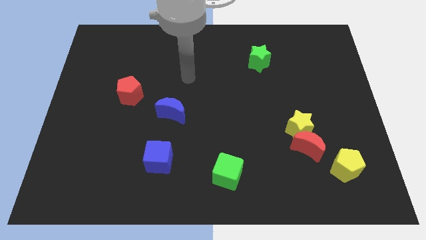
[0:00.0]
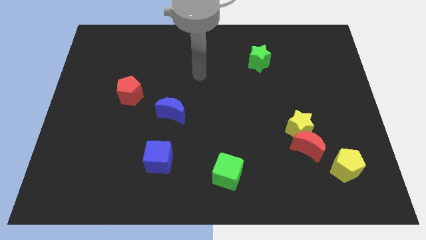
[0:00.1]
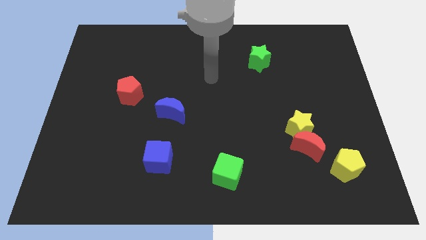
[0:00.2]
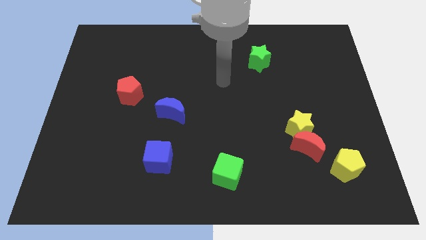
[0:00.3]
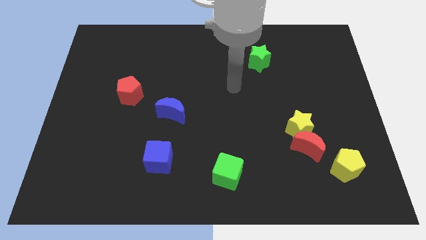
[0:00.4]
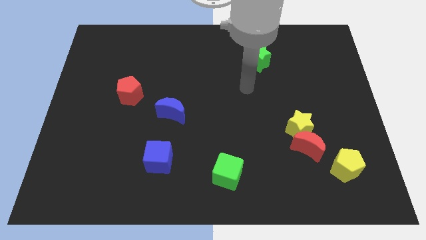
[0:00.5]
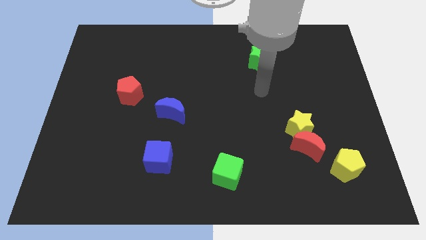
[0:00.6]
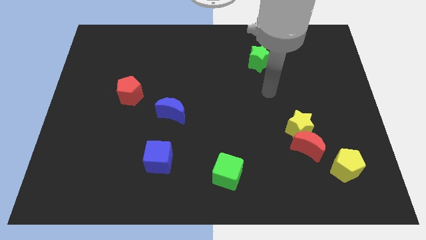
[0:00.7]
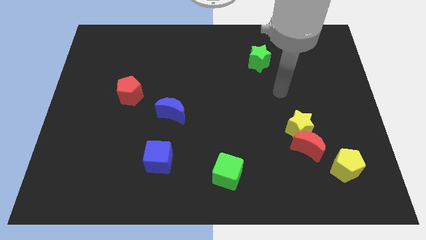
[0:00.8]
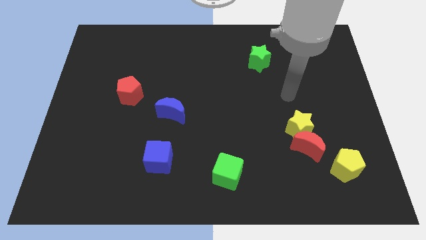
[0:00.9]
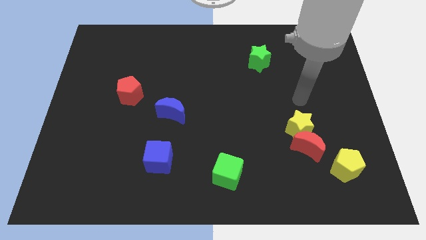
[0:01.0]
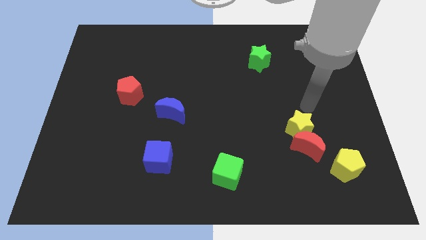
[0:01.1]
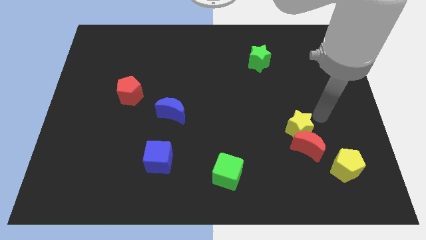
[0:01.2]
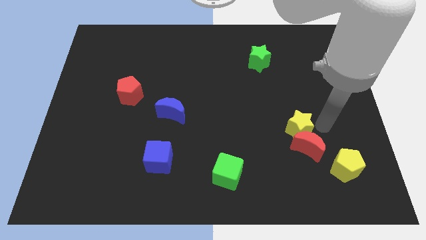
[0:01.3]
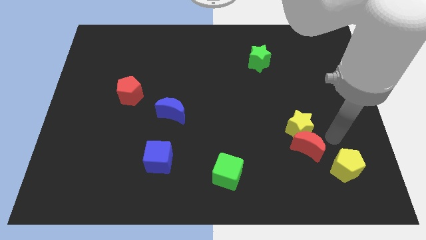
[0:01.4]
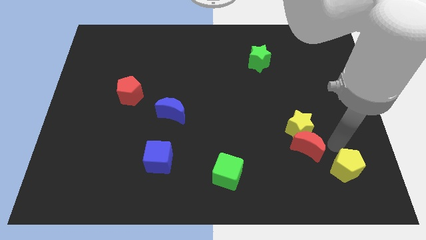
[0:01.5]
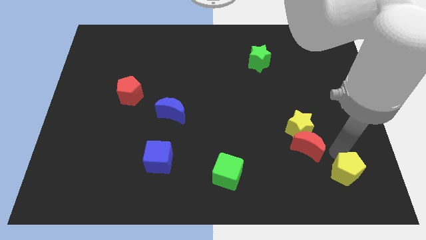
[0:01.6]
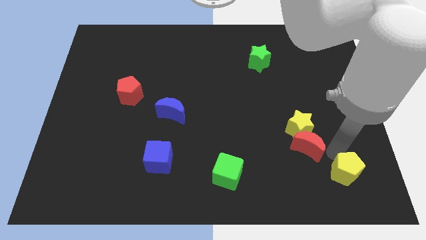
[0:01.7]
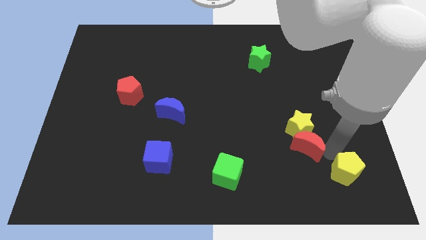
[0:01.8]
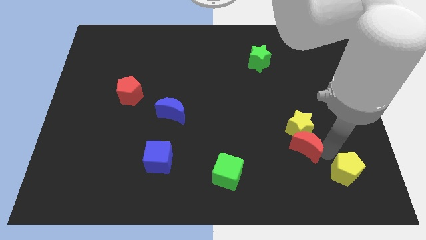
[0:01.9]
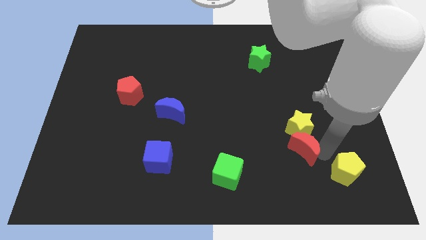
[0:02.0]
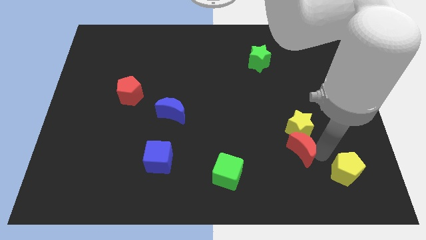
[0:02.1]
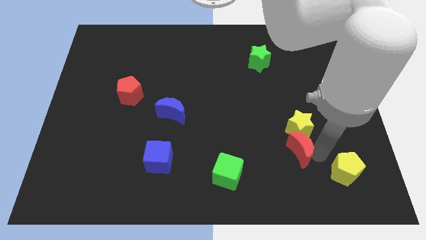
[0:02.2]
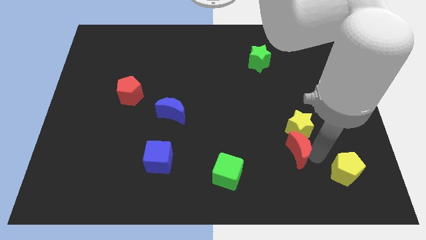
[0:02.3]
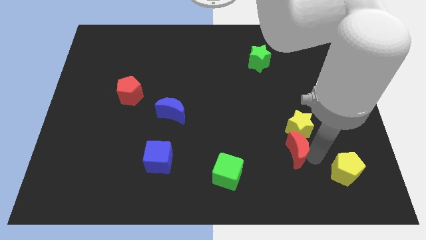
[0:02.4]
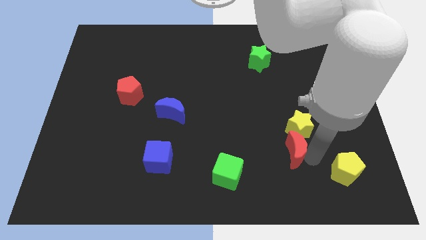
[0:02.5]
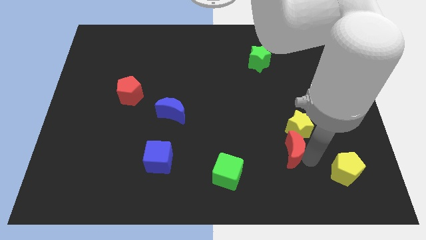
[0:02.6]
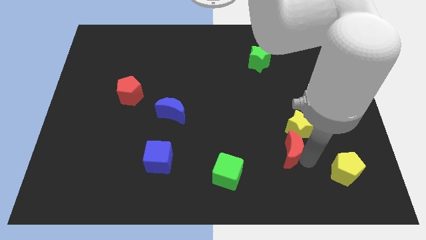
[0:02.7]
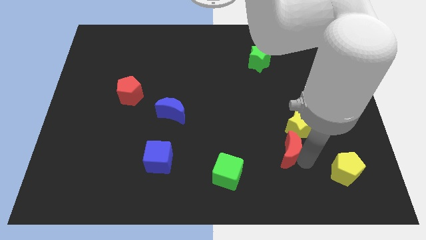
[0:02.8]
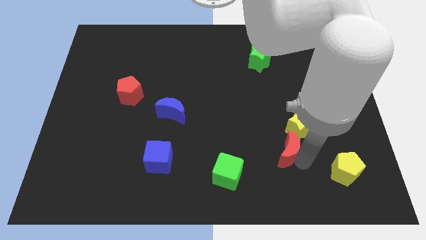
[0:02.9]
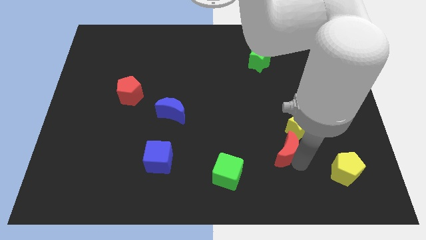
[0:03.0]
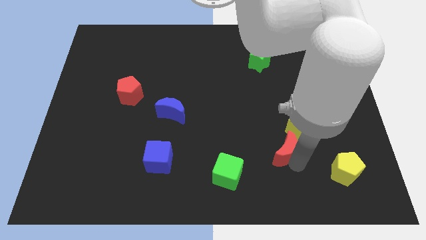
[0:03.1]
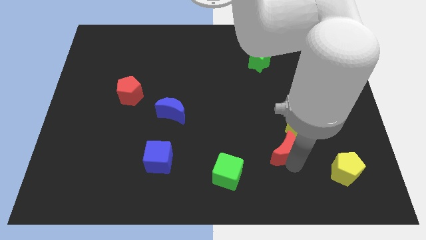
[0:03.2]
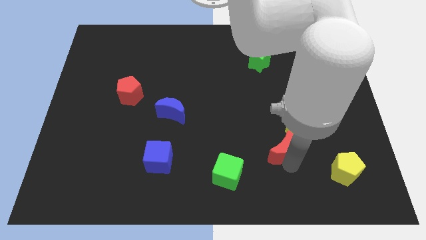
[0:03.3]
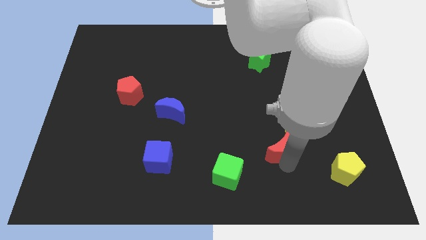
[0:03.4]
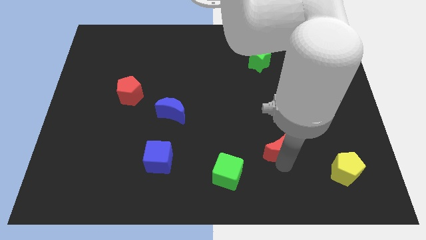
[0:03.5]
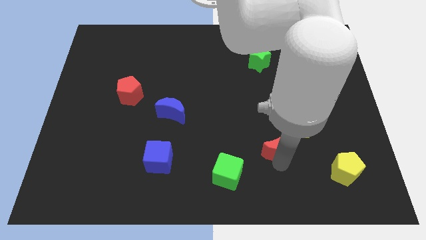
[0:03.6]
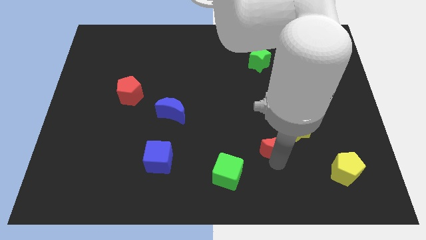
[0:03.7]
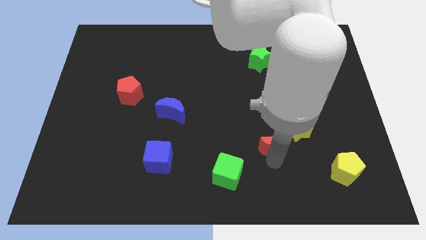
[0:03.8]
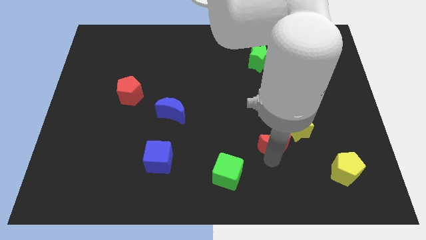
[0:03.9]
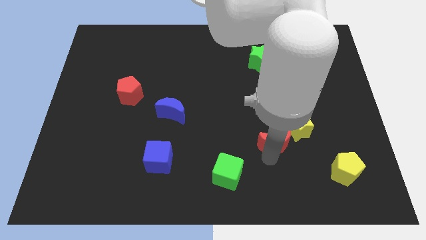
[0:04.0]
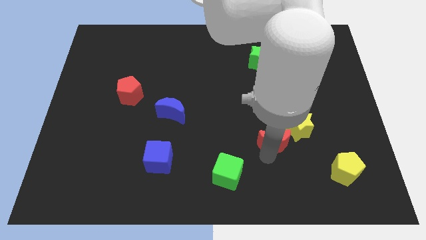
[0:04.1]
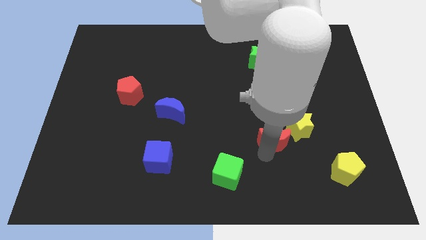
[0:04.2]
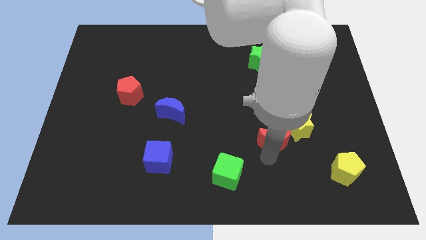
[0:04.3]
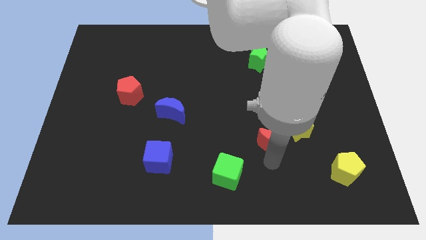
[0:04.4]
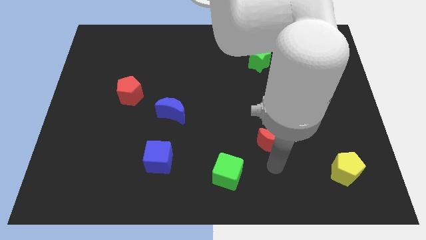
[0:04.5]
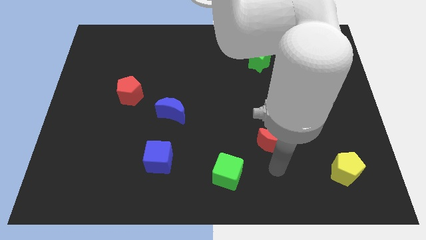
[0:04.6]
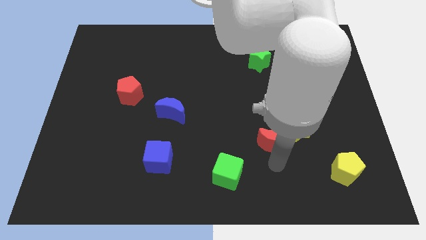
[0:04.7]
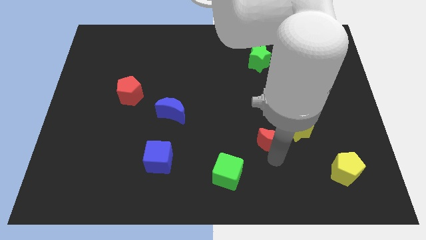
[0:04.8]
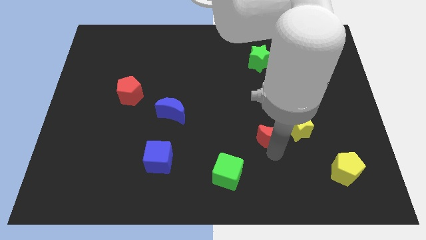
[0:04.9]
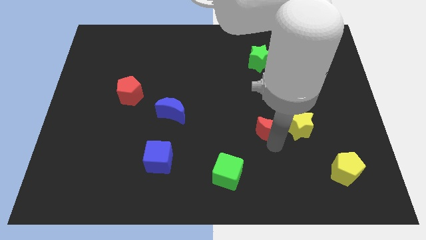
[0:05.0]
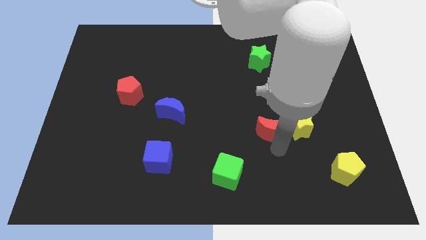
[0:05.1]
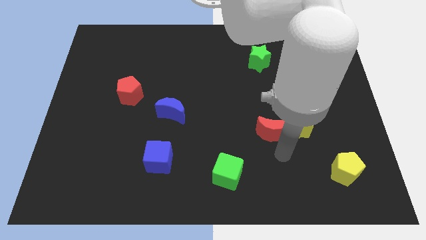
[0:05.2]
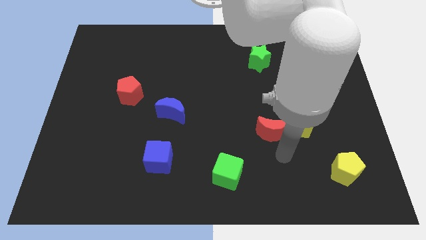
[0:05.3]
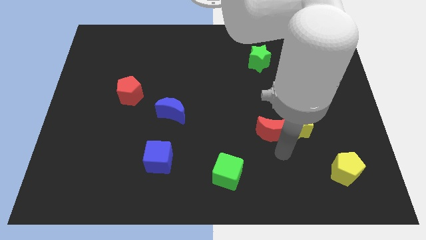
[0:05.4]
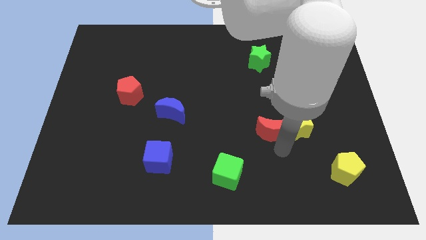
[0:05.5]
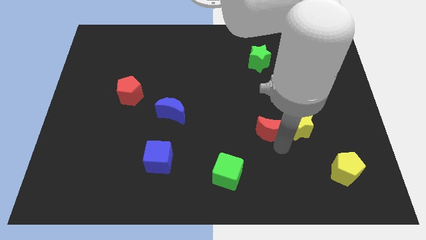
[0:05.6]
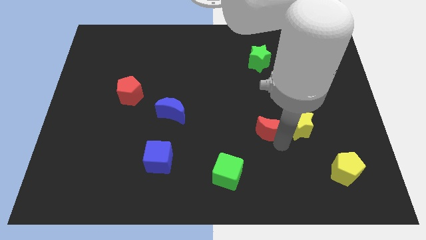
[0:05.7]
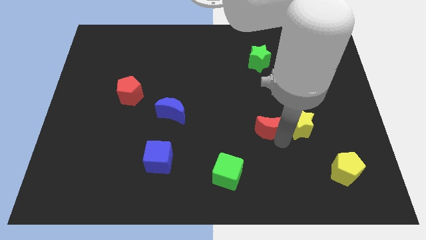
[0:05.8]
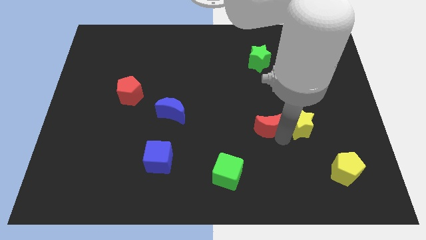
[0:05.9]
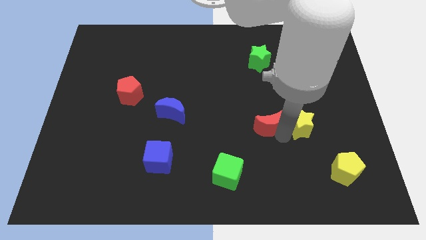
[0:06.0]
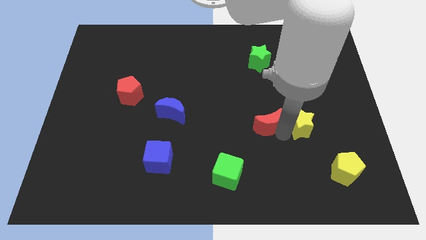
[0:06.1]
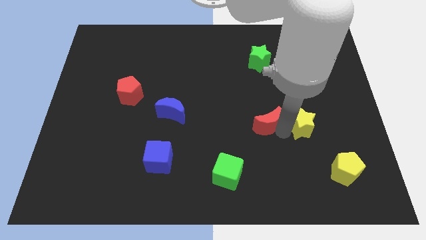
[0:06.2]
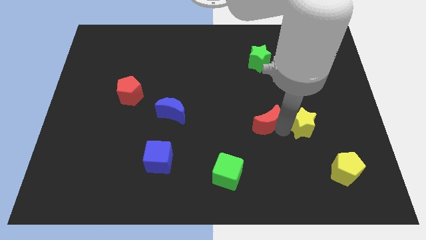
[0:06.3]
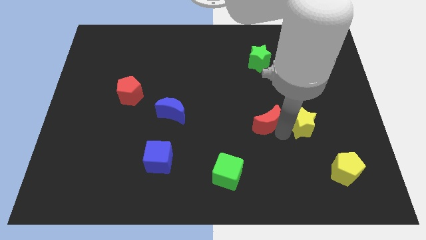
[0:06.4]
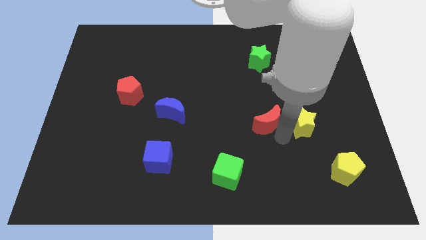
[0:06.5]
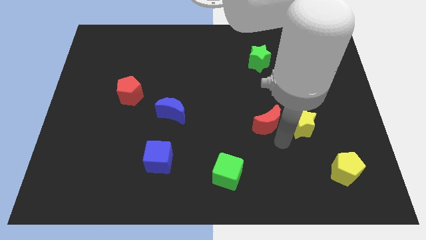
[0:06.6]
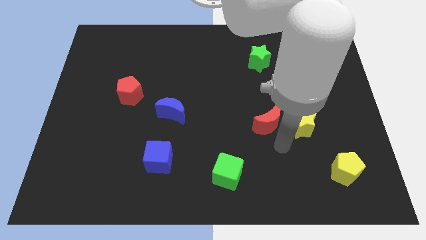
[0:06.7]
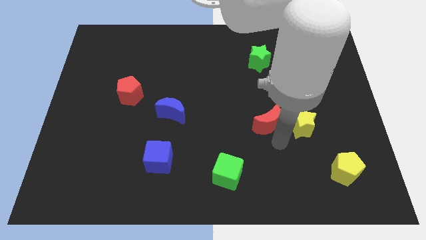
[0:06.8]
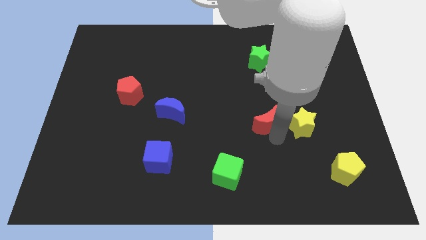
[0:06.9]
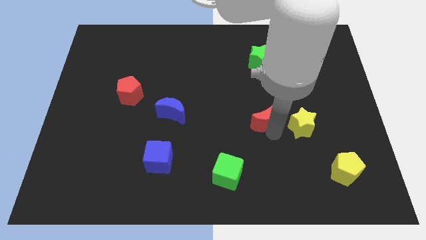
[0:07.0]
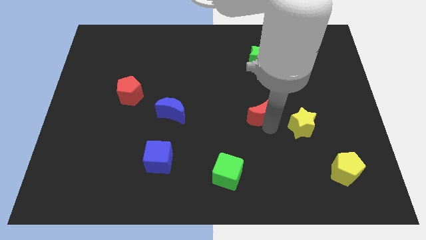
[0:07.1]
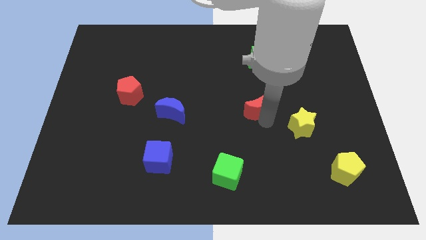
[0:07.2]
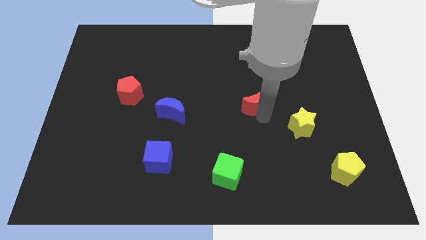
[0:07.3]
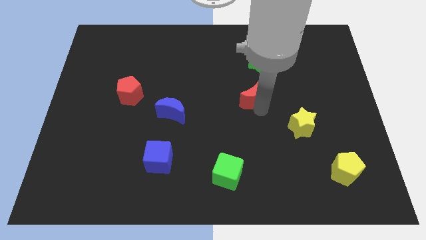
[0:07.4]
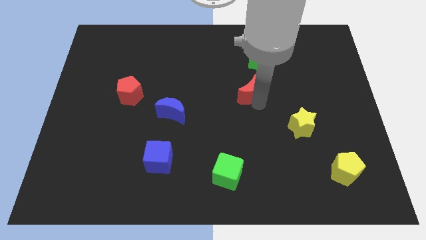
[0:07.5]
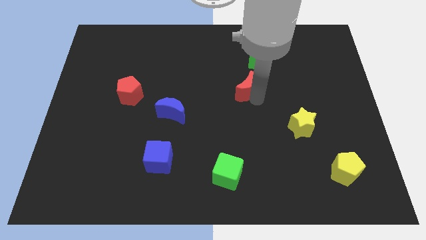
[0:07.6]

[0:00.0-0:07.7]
slide the red moon up and left

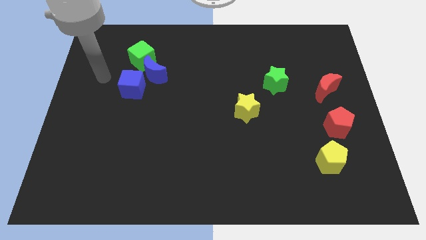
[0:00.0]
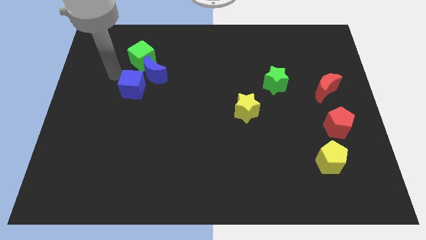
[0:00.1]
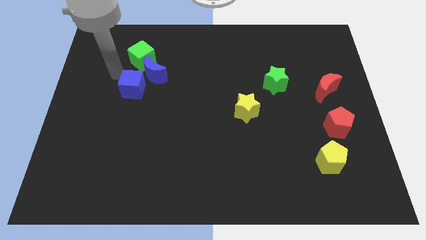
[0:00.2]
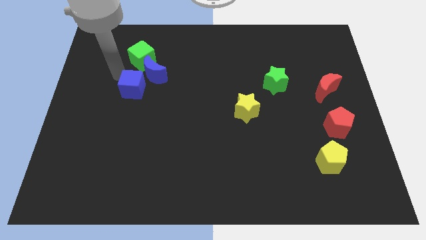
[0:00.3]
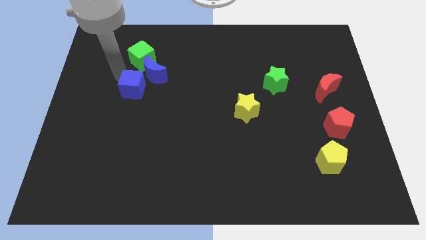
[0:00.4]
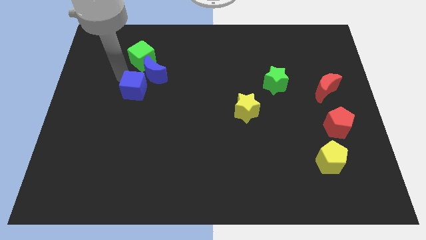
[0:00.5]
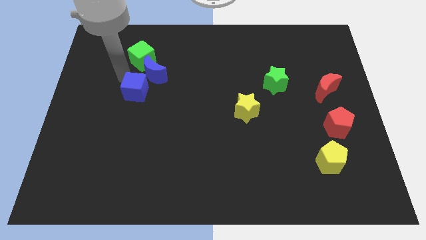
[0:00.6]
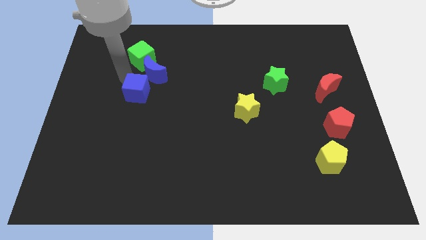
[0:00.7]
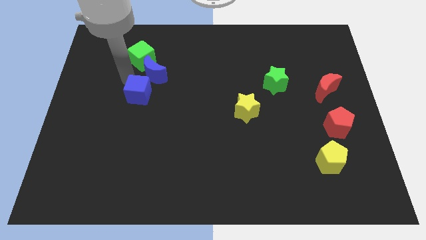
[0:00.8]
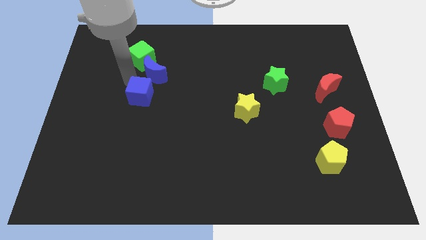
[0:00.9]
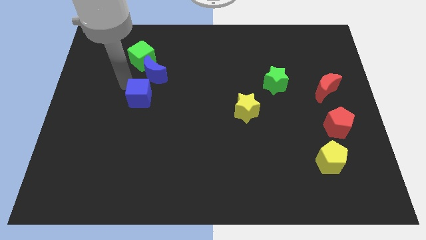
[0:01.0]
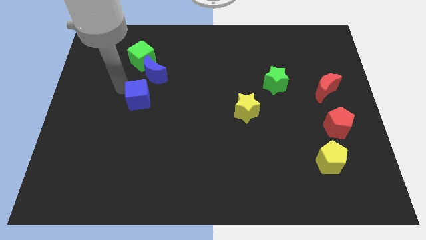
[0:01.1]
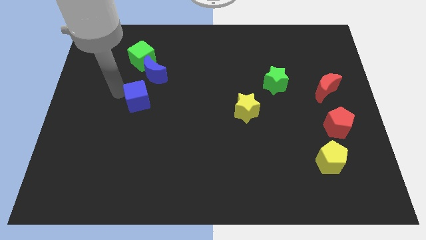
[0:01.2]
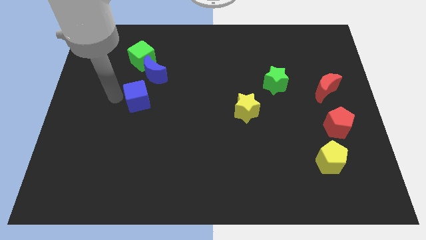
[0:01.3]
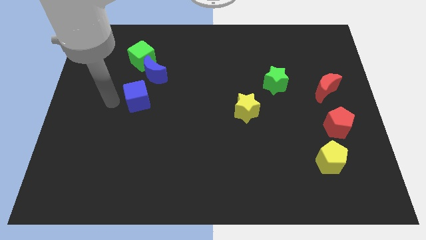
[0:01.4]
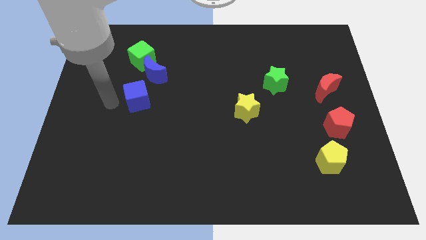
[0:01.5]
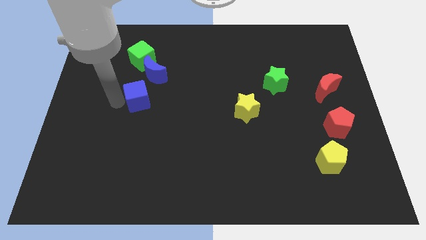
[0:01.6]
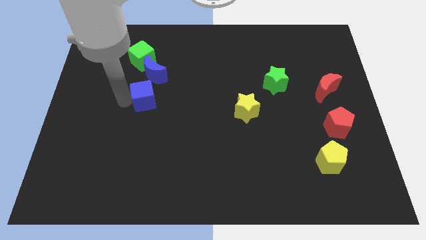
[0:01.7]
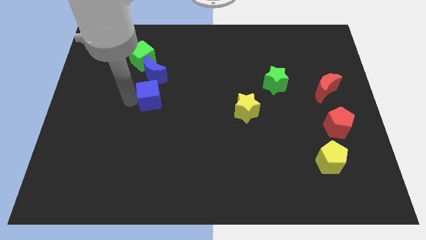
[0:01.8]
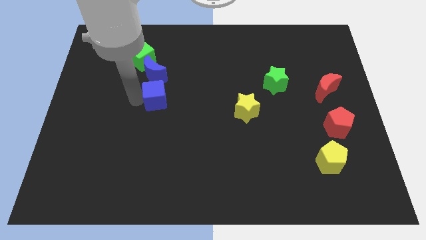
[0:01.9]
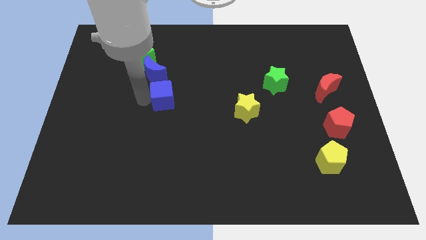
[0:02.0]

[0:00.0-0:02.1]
slide the blue cube right a bit
